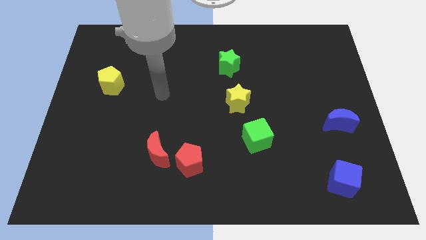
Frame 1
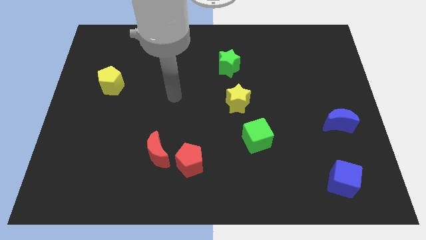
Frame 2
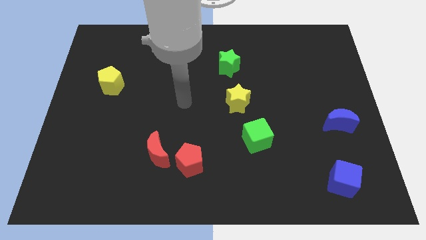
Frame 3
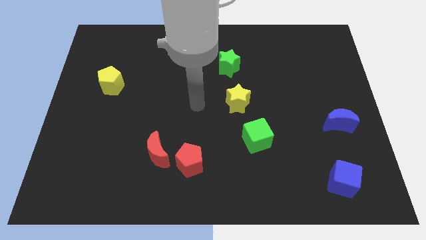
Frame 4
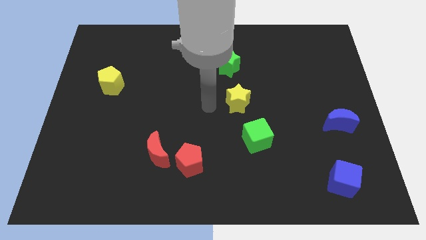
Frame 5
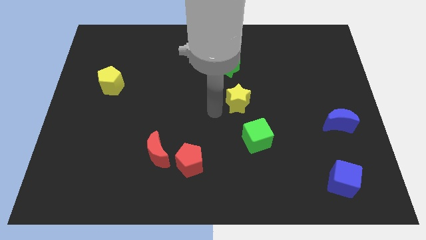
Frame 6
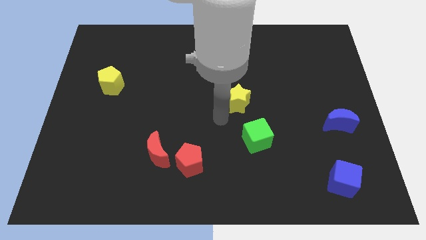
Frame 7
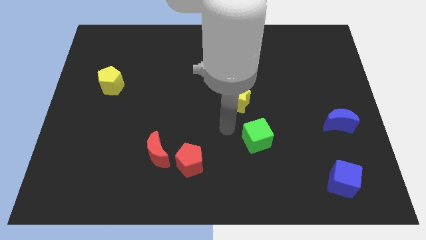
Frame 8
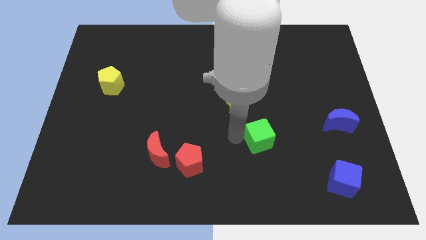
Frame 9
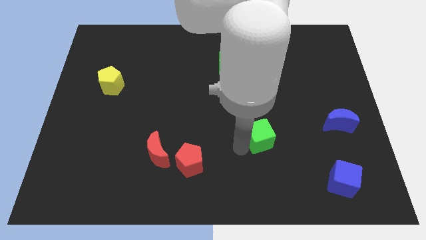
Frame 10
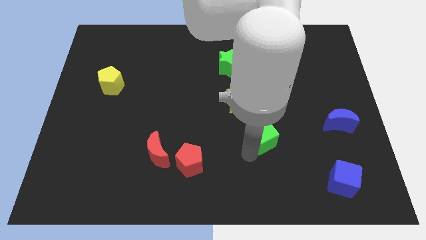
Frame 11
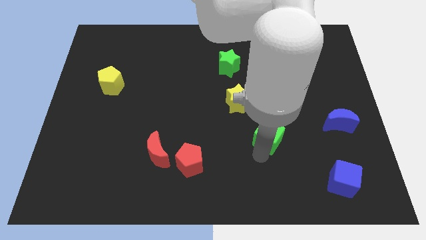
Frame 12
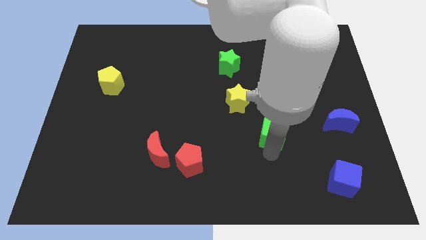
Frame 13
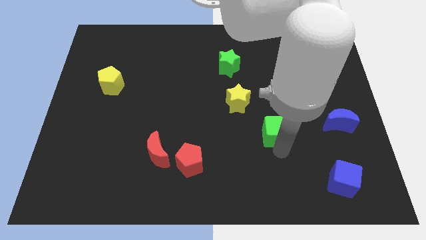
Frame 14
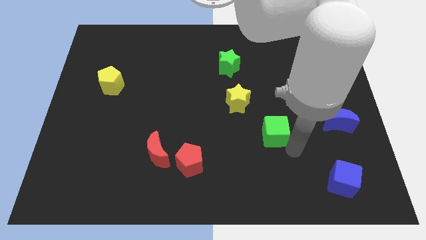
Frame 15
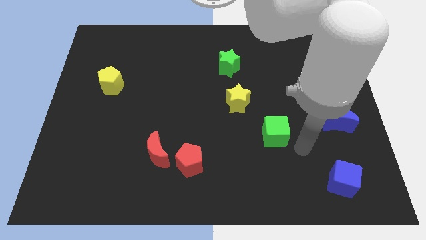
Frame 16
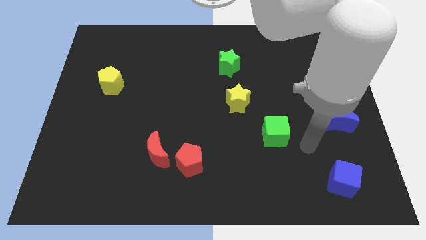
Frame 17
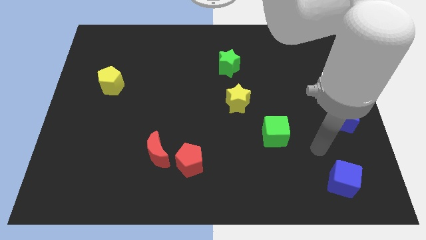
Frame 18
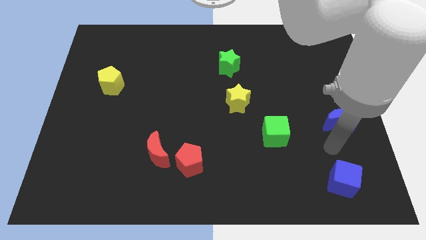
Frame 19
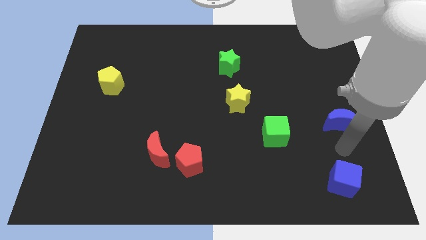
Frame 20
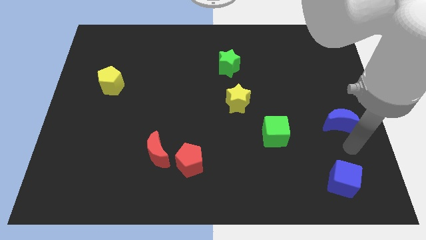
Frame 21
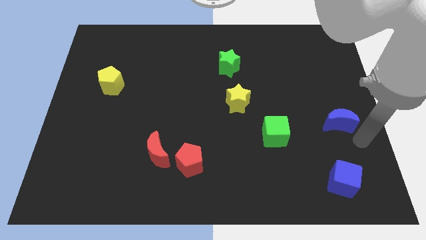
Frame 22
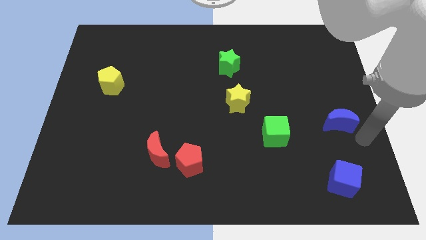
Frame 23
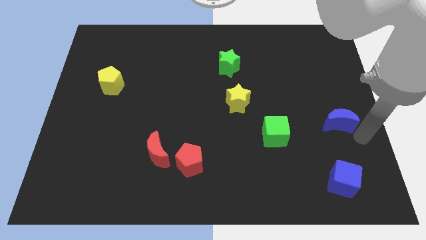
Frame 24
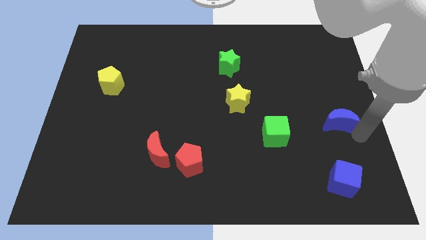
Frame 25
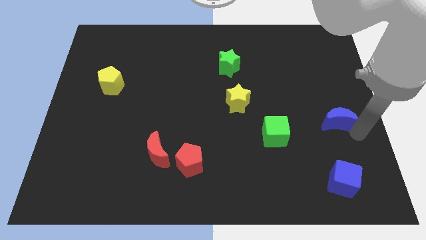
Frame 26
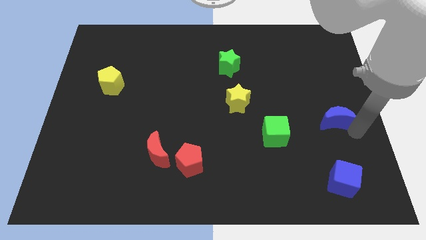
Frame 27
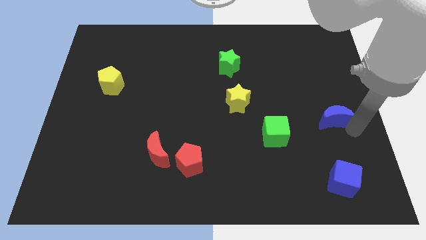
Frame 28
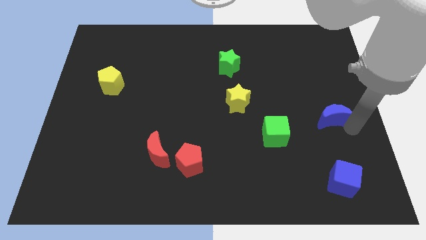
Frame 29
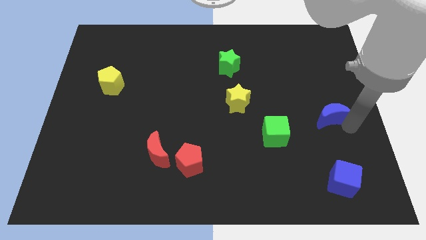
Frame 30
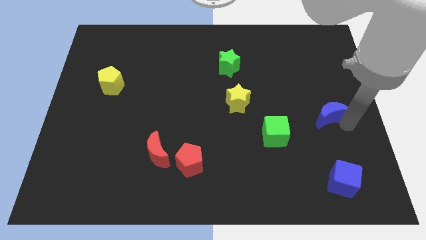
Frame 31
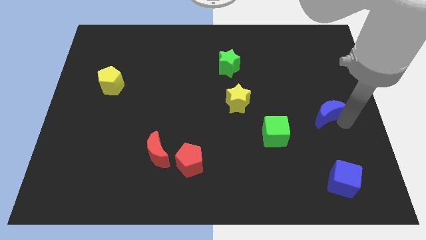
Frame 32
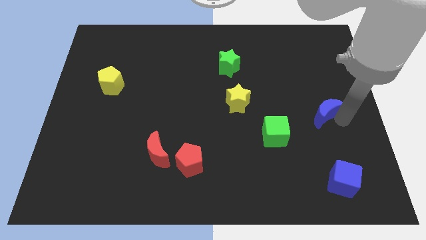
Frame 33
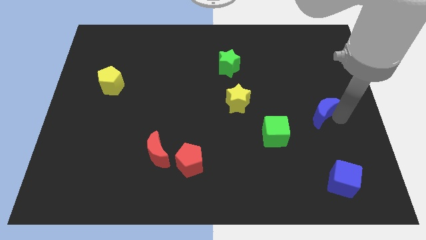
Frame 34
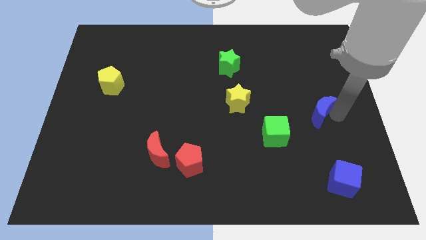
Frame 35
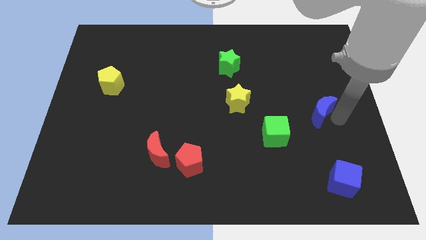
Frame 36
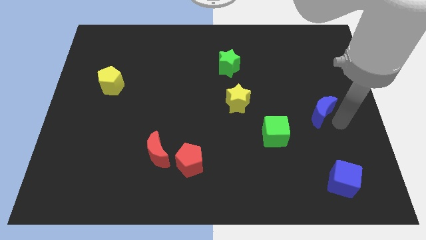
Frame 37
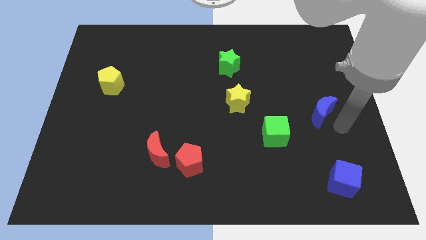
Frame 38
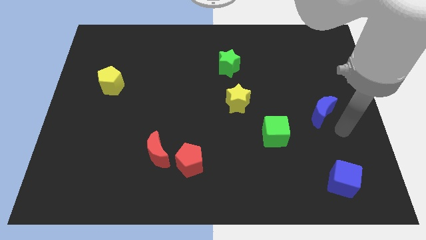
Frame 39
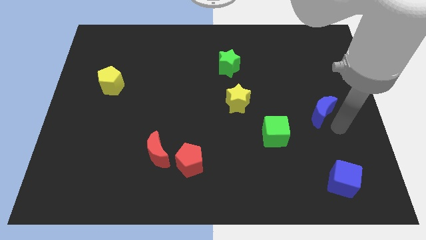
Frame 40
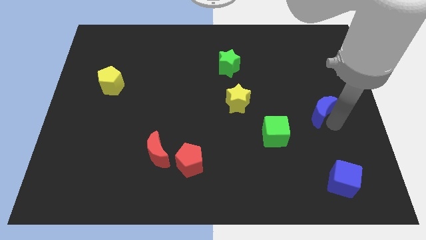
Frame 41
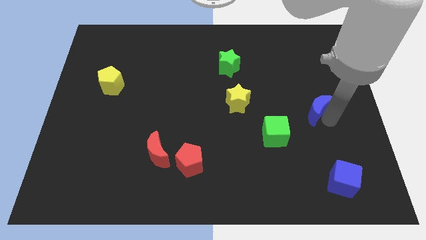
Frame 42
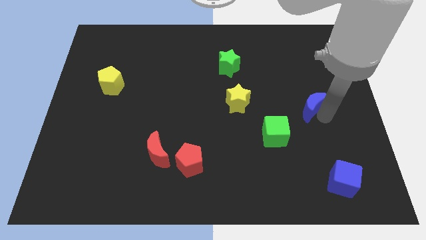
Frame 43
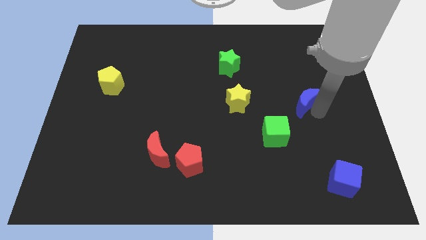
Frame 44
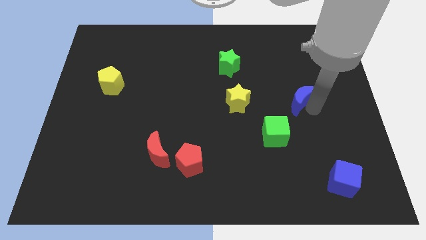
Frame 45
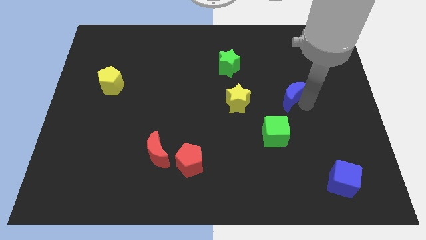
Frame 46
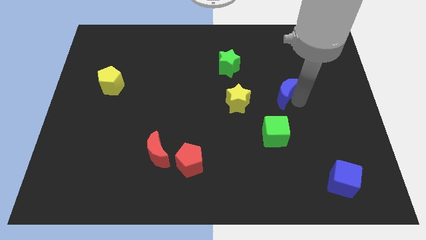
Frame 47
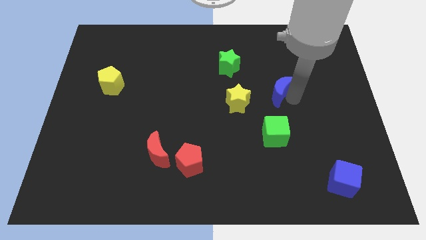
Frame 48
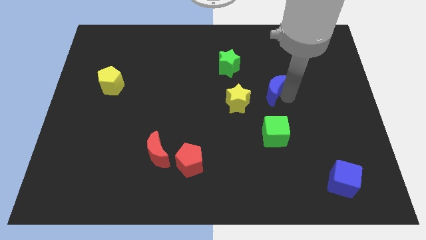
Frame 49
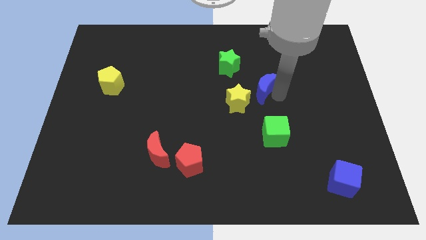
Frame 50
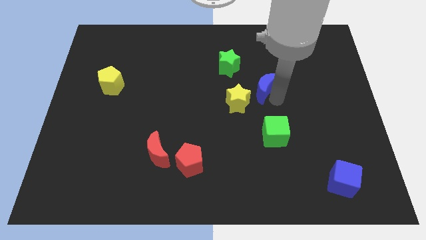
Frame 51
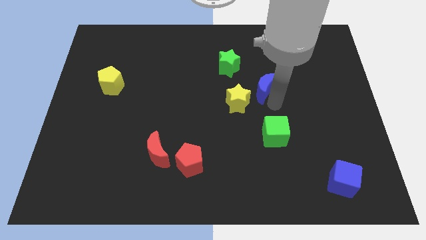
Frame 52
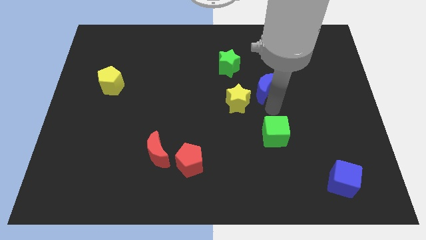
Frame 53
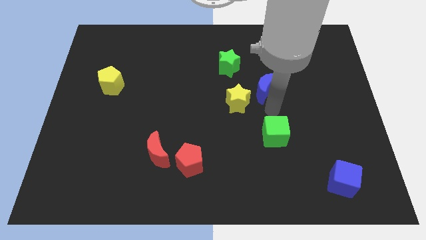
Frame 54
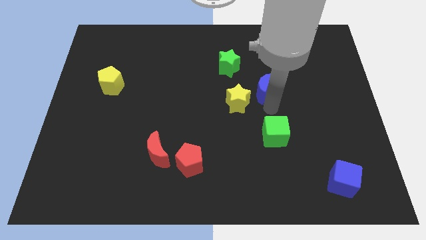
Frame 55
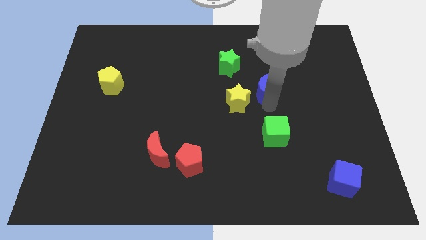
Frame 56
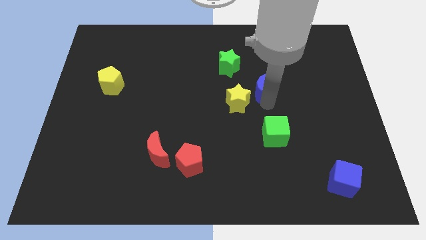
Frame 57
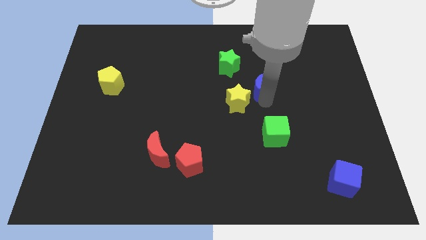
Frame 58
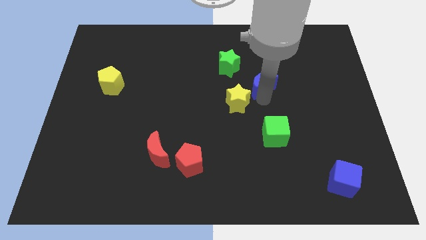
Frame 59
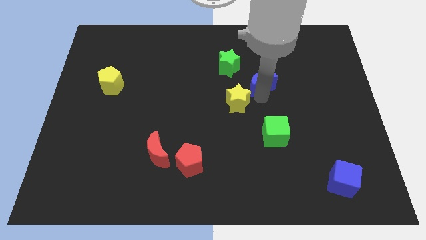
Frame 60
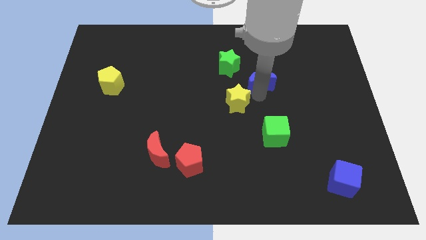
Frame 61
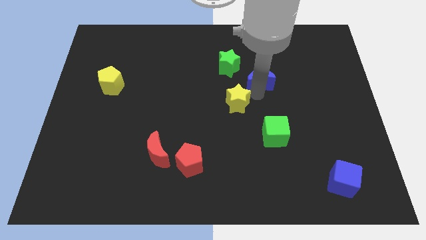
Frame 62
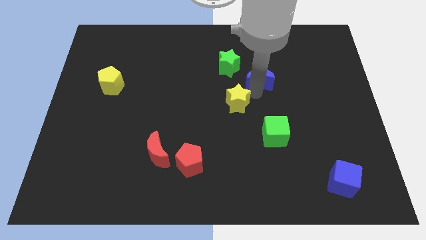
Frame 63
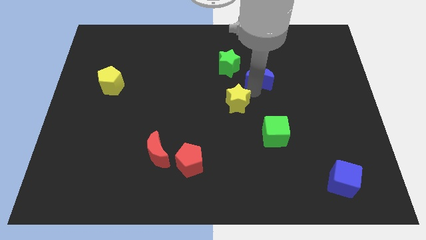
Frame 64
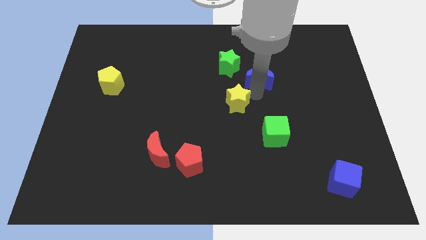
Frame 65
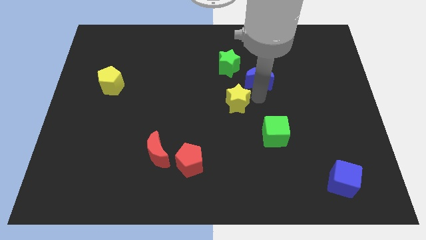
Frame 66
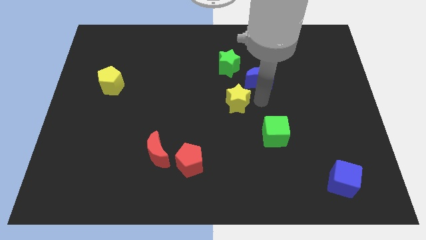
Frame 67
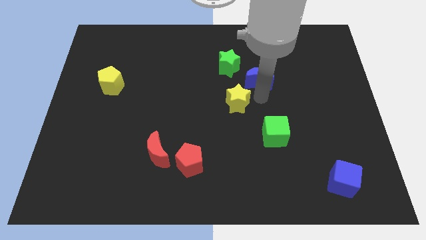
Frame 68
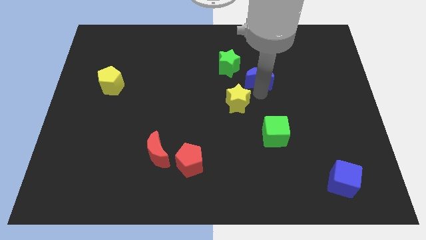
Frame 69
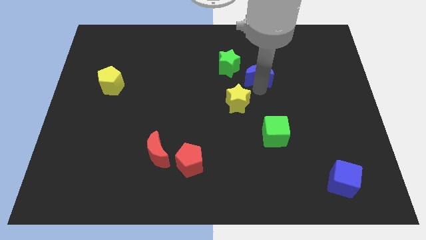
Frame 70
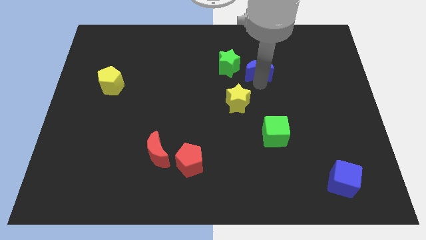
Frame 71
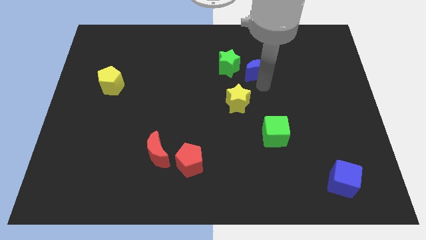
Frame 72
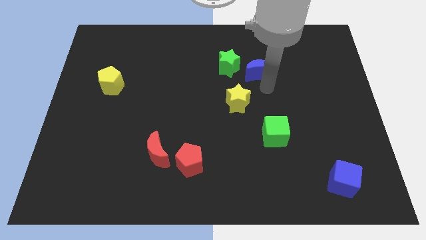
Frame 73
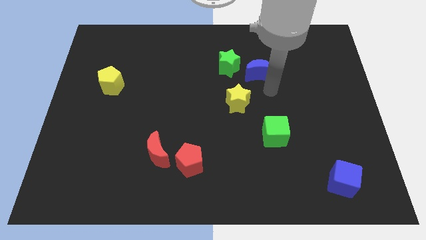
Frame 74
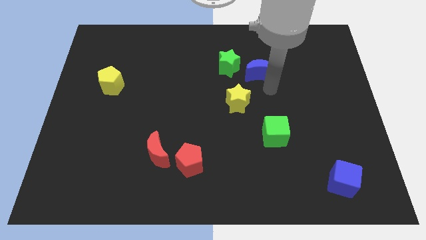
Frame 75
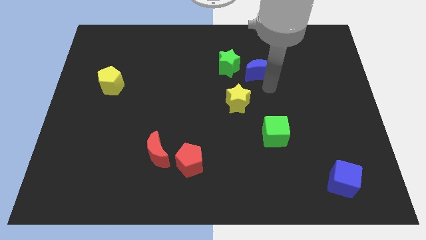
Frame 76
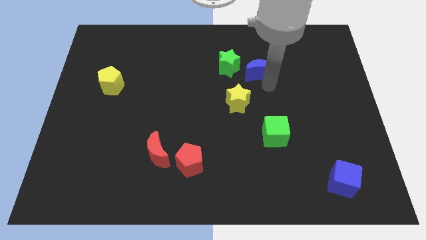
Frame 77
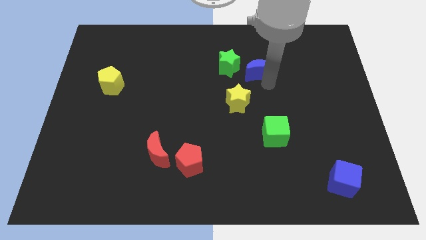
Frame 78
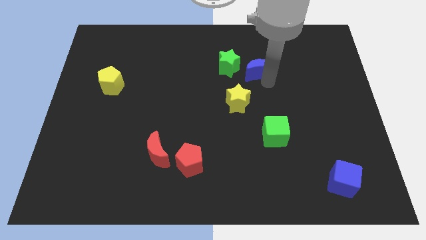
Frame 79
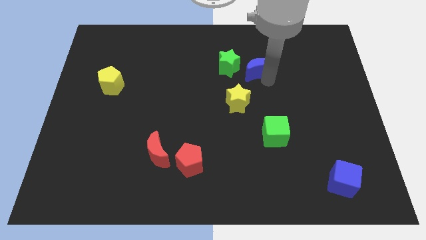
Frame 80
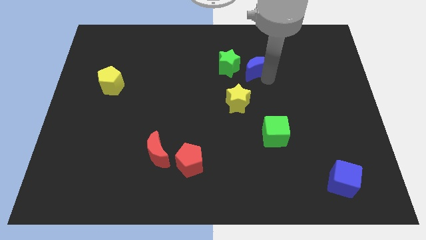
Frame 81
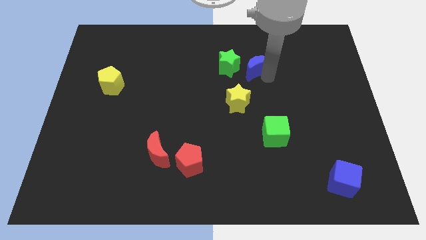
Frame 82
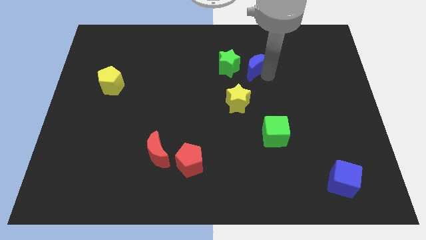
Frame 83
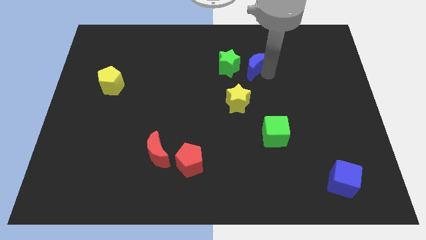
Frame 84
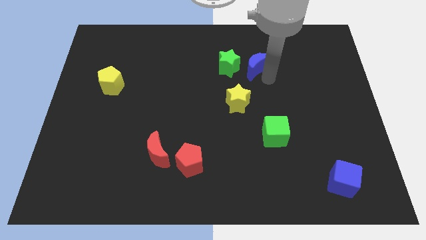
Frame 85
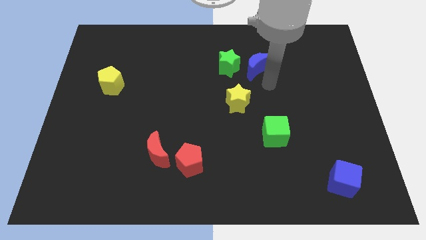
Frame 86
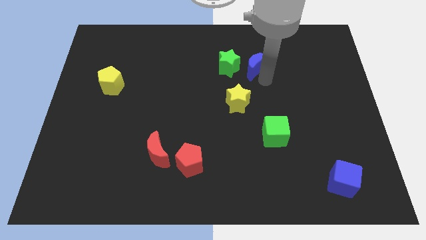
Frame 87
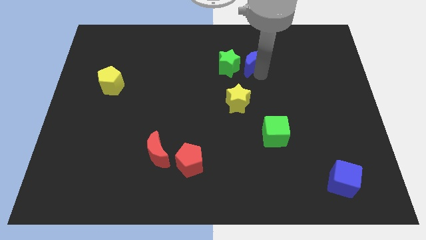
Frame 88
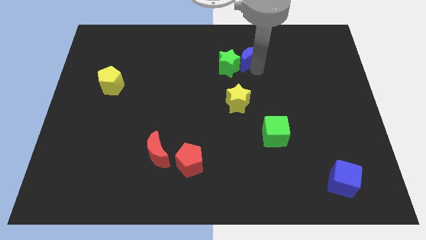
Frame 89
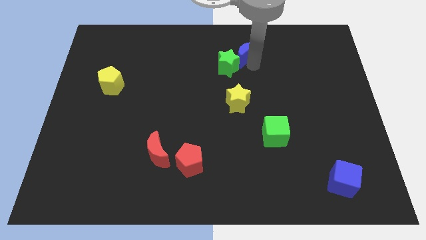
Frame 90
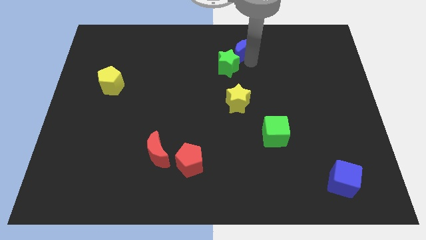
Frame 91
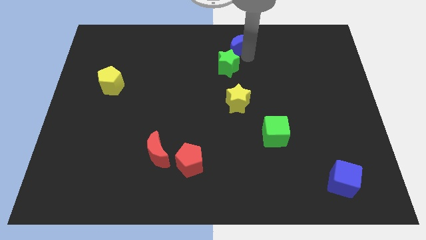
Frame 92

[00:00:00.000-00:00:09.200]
put the blue moon to the towards your base
